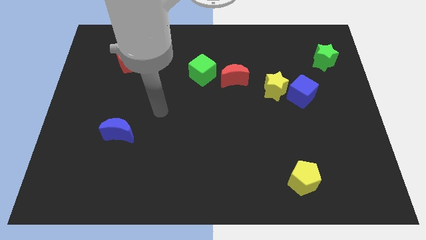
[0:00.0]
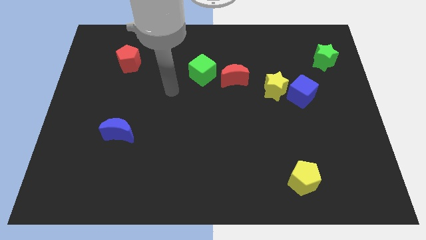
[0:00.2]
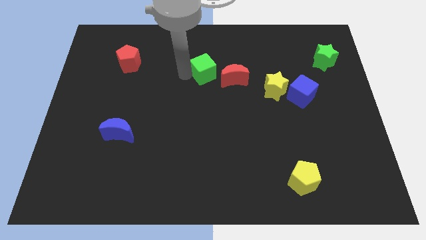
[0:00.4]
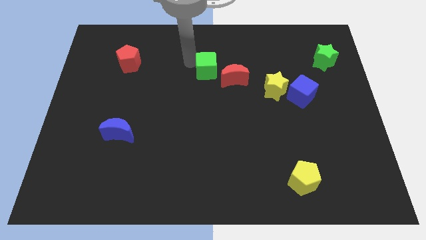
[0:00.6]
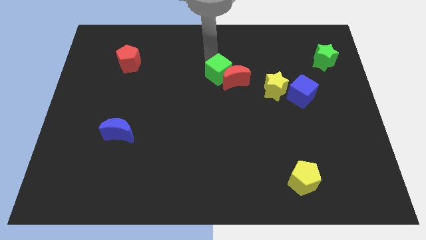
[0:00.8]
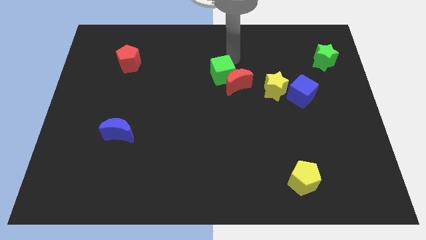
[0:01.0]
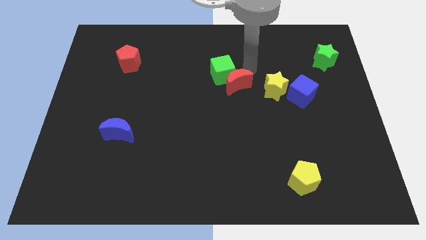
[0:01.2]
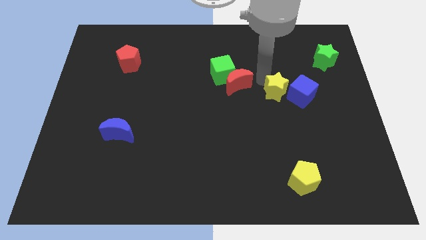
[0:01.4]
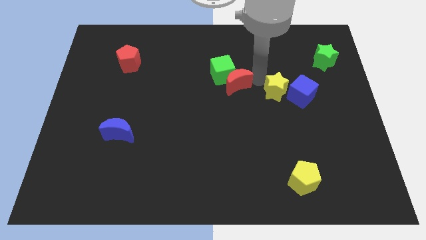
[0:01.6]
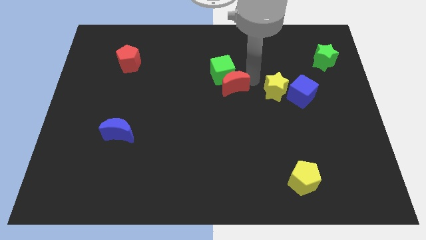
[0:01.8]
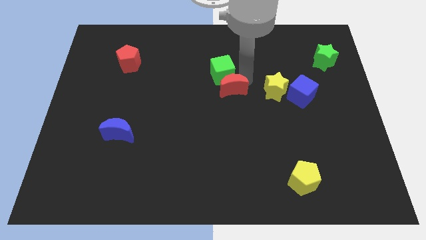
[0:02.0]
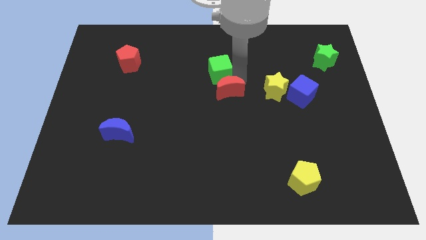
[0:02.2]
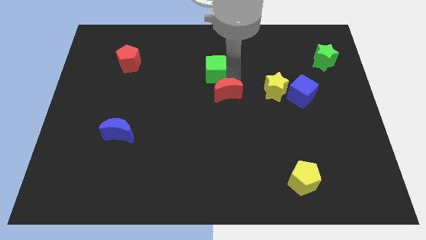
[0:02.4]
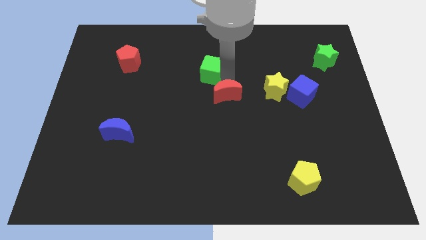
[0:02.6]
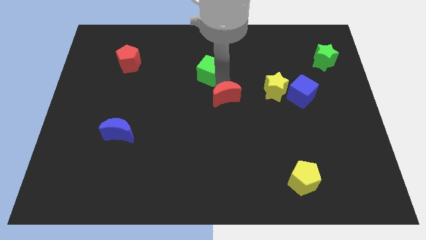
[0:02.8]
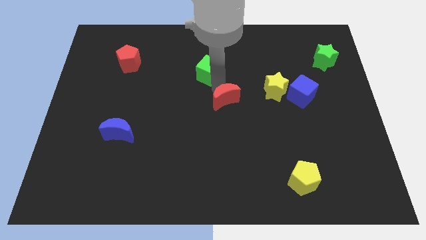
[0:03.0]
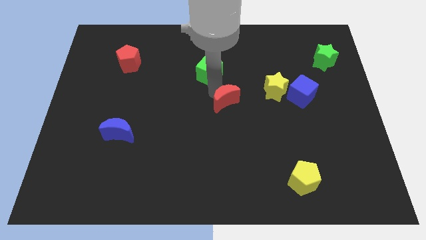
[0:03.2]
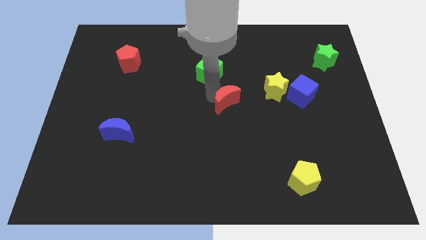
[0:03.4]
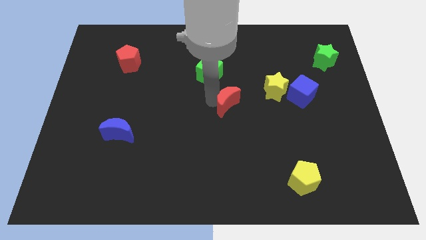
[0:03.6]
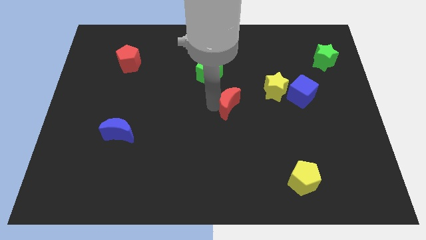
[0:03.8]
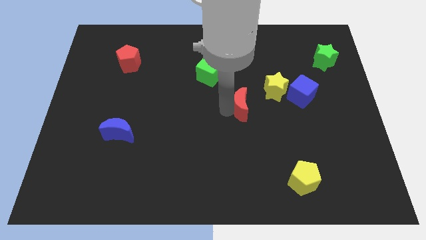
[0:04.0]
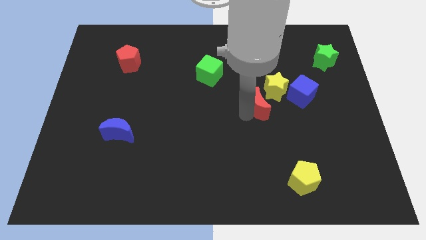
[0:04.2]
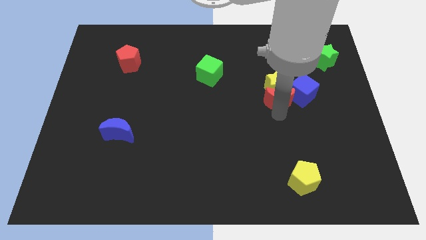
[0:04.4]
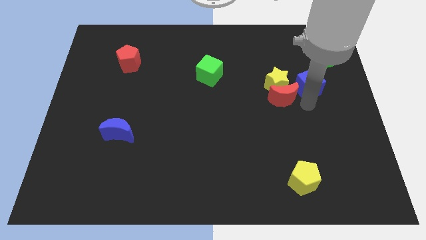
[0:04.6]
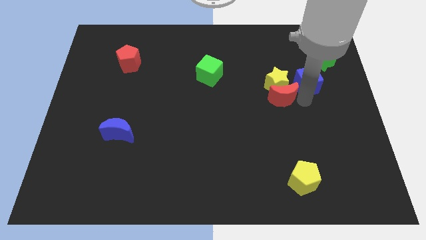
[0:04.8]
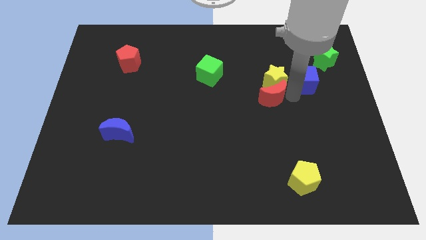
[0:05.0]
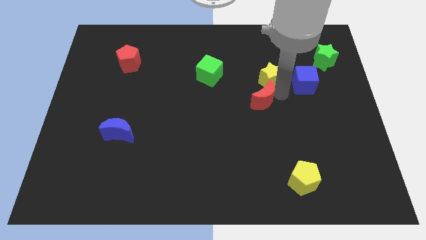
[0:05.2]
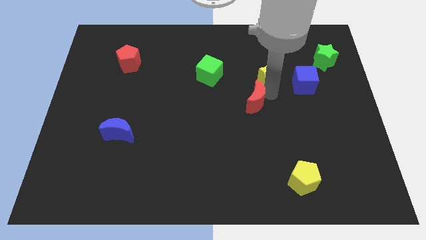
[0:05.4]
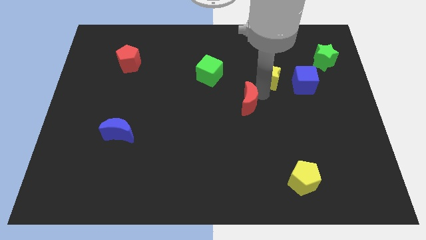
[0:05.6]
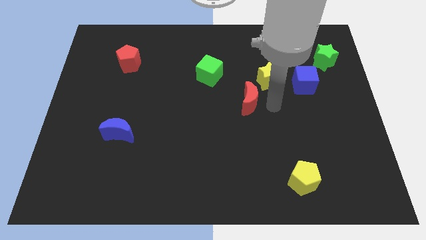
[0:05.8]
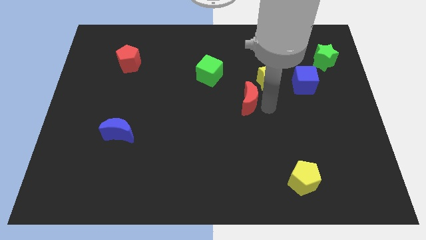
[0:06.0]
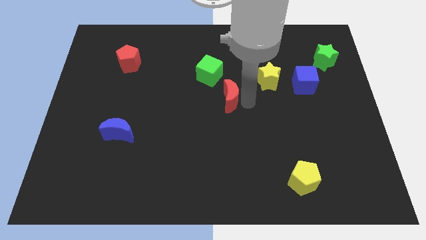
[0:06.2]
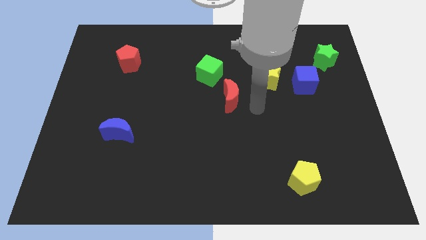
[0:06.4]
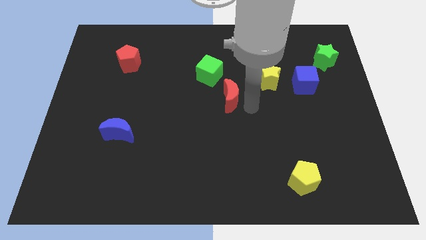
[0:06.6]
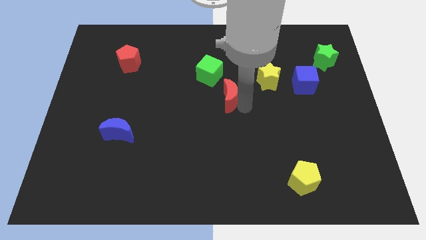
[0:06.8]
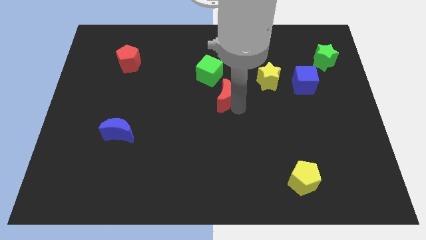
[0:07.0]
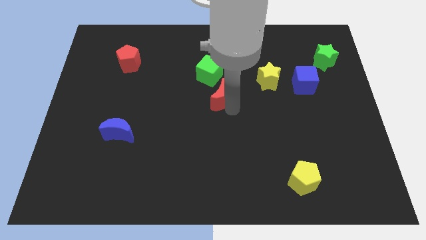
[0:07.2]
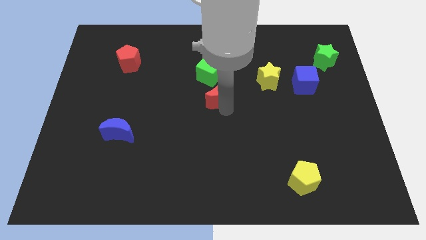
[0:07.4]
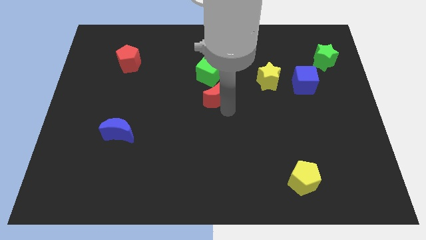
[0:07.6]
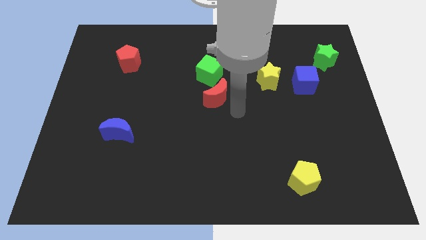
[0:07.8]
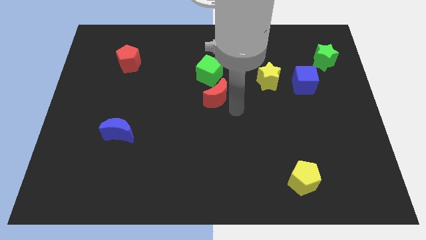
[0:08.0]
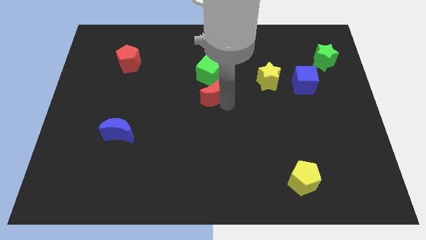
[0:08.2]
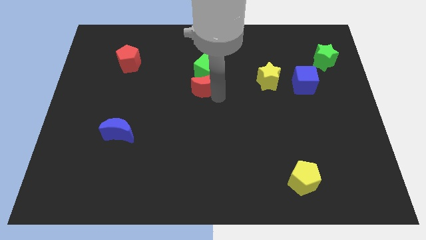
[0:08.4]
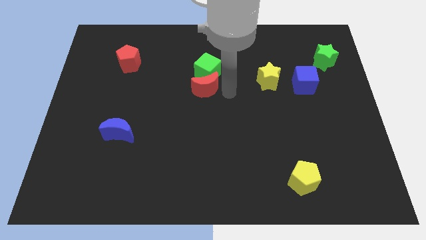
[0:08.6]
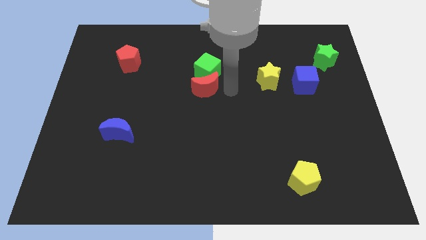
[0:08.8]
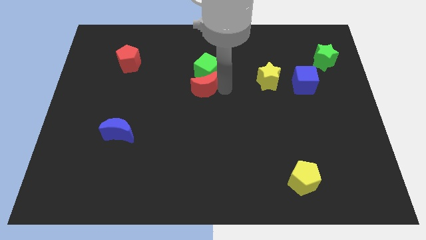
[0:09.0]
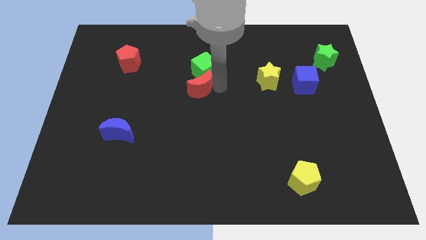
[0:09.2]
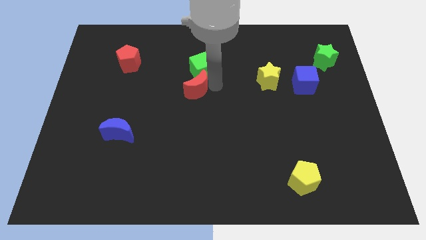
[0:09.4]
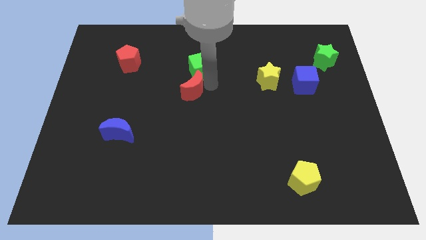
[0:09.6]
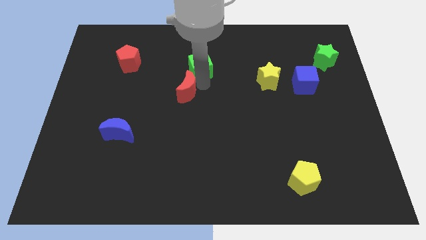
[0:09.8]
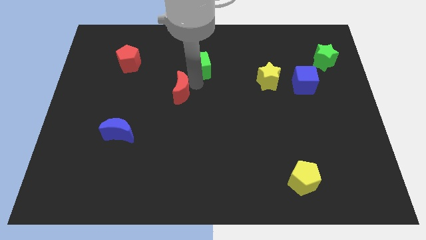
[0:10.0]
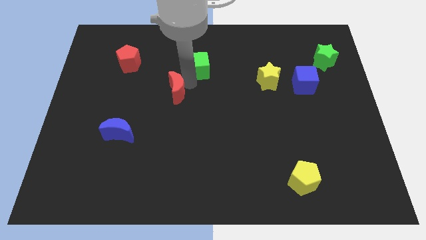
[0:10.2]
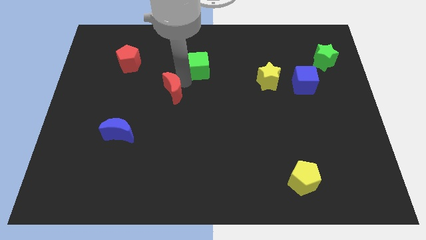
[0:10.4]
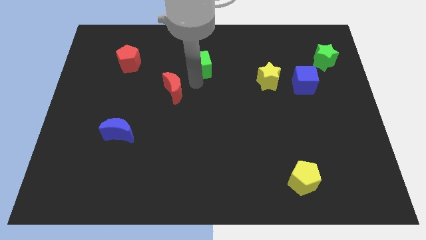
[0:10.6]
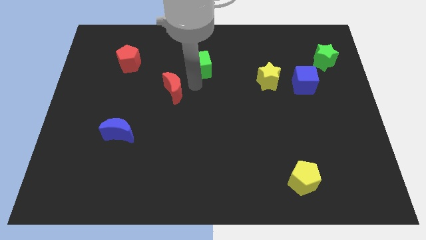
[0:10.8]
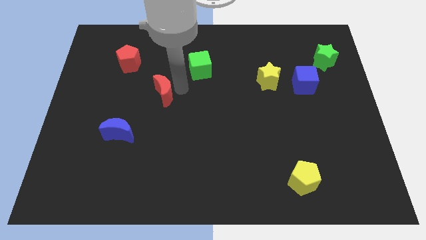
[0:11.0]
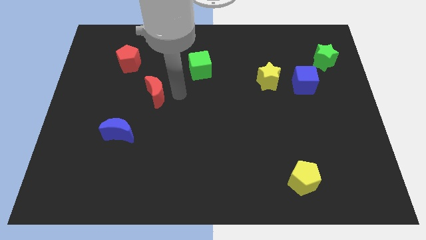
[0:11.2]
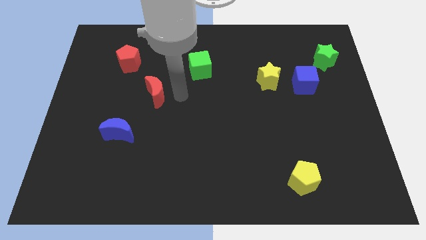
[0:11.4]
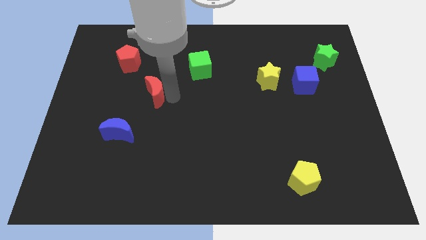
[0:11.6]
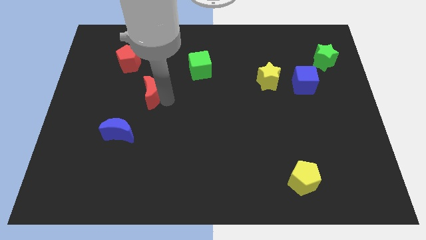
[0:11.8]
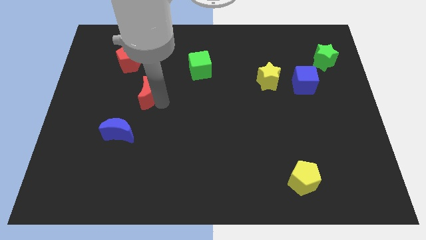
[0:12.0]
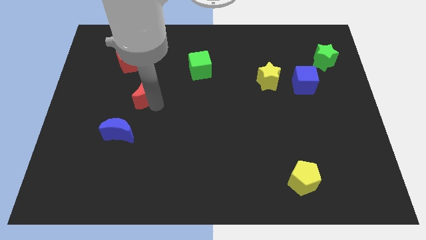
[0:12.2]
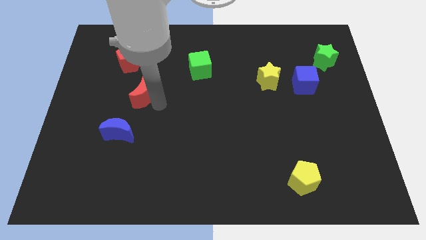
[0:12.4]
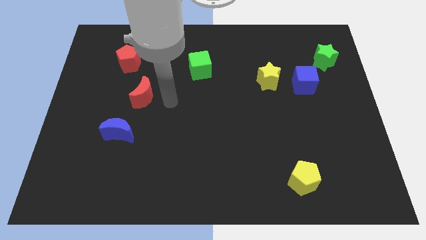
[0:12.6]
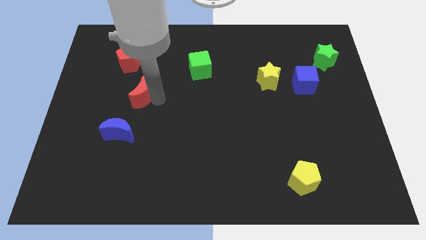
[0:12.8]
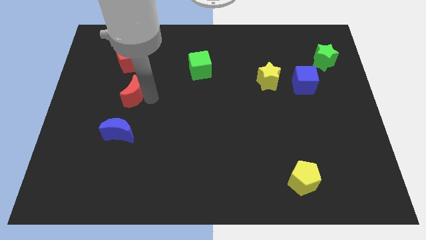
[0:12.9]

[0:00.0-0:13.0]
slide the red moon to the bottom of the red pentagon
